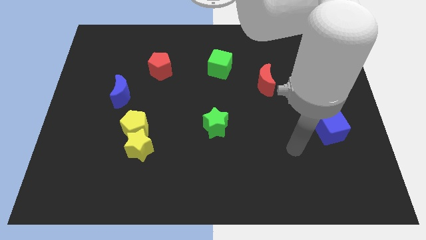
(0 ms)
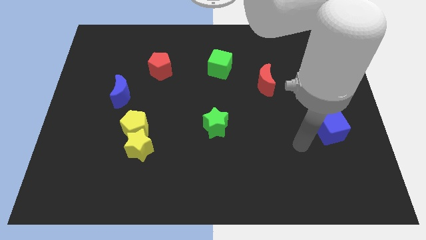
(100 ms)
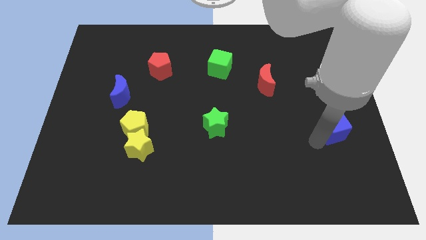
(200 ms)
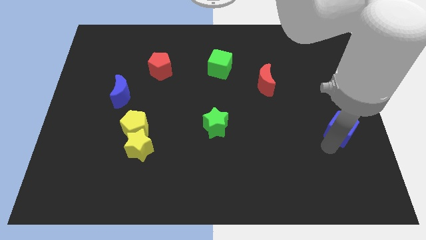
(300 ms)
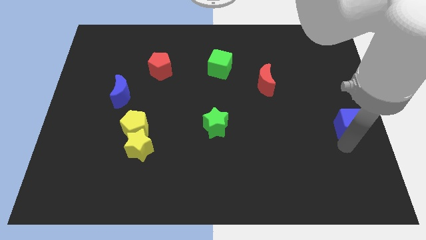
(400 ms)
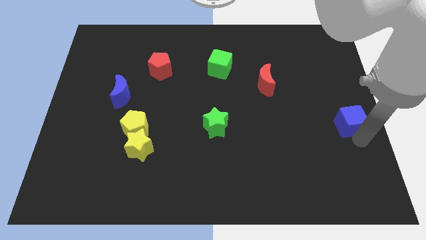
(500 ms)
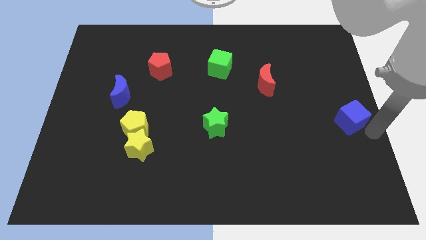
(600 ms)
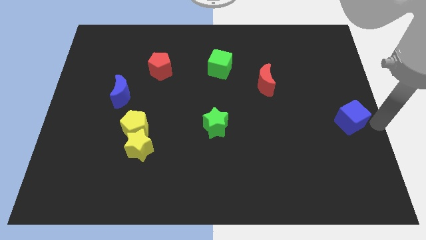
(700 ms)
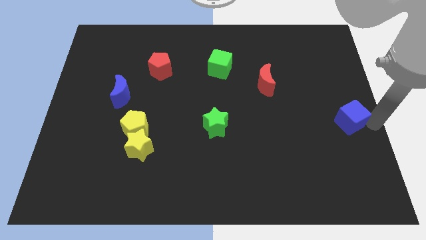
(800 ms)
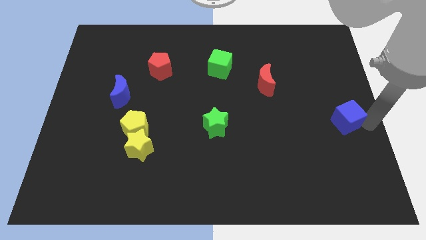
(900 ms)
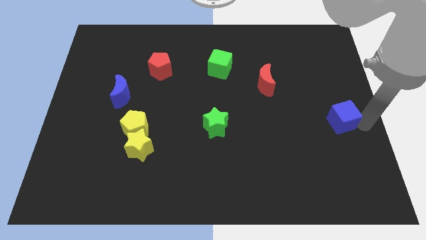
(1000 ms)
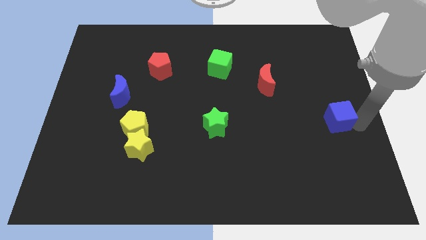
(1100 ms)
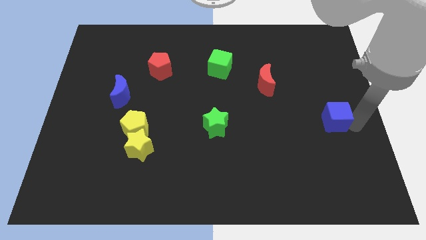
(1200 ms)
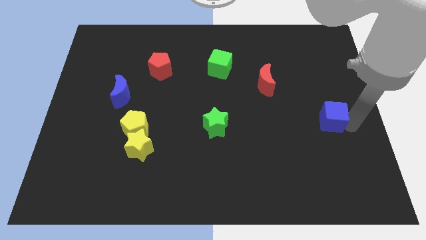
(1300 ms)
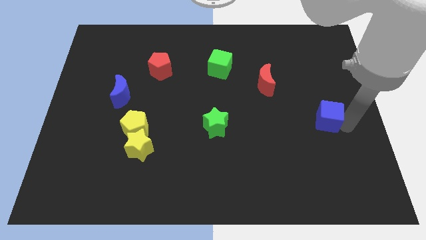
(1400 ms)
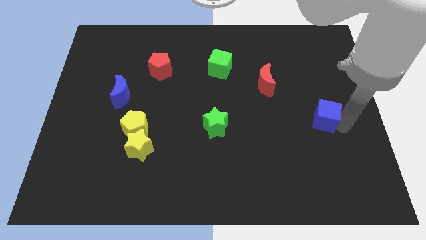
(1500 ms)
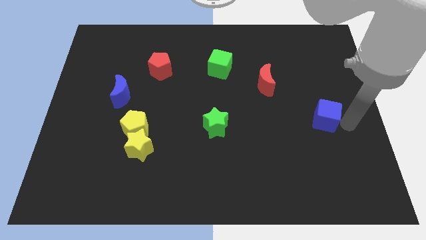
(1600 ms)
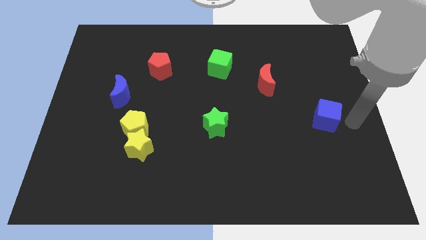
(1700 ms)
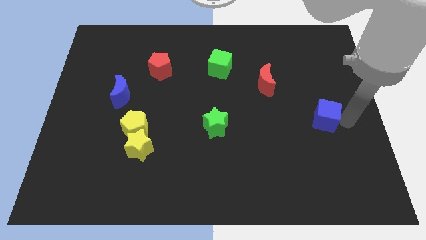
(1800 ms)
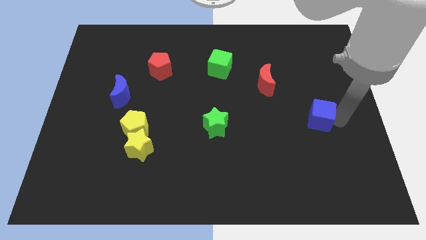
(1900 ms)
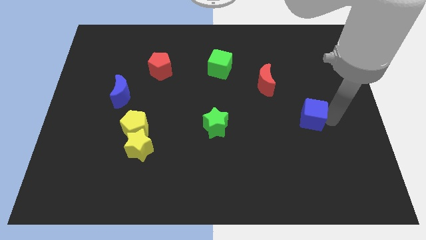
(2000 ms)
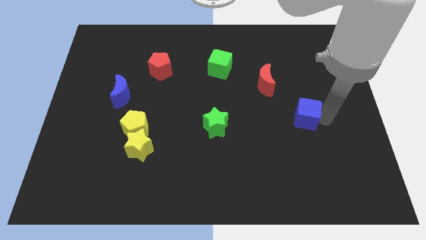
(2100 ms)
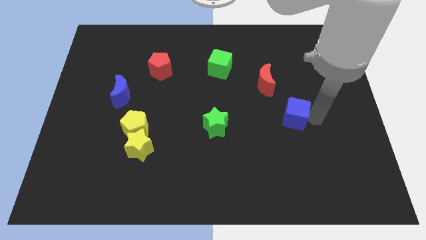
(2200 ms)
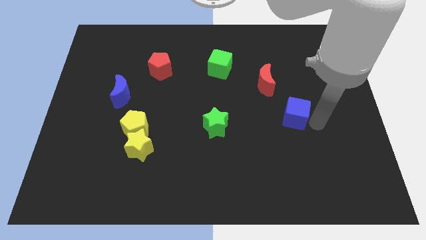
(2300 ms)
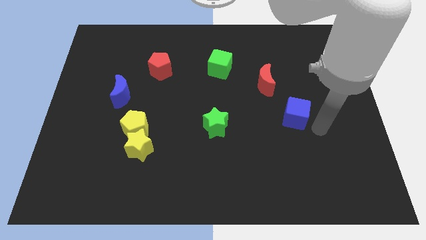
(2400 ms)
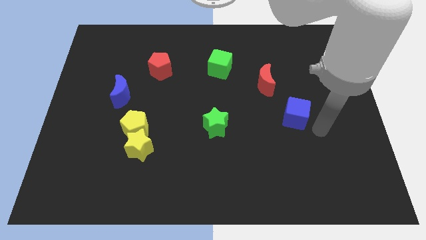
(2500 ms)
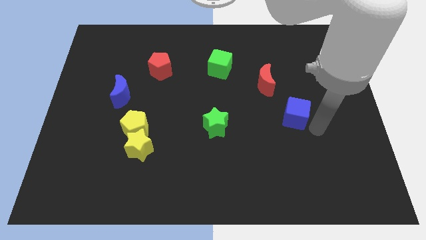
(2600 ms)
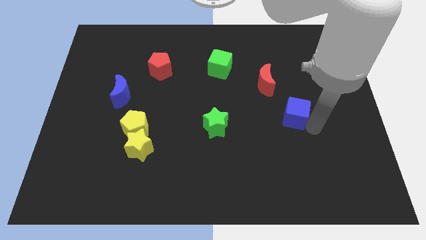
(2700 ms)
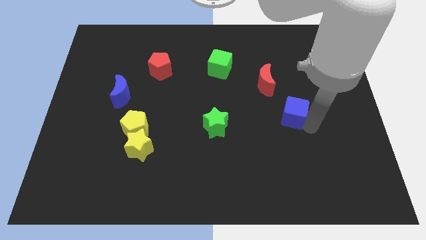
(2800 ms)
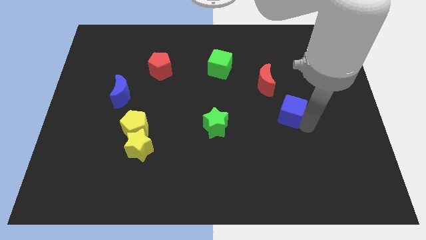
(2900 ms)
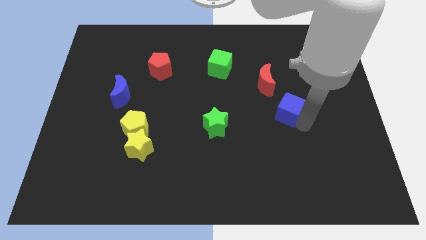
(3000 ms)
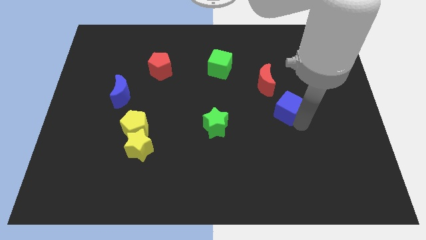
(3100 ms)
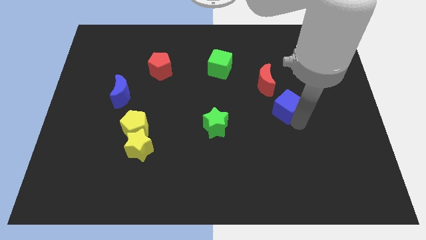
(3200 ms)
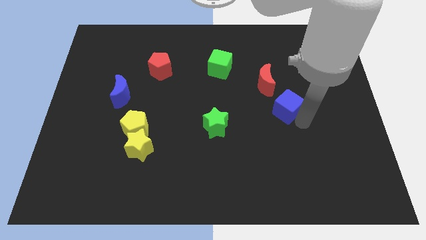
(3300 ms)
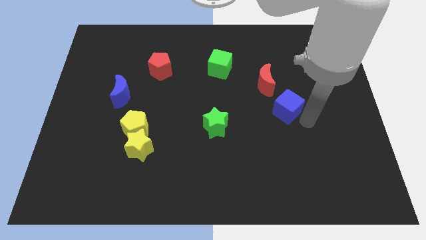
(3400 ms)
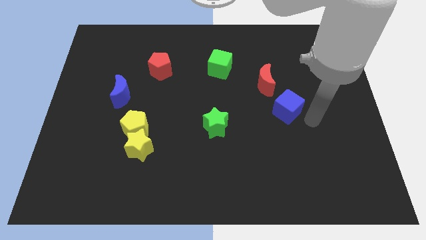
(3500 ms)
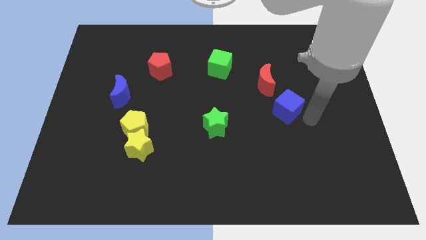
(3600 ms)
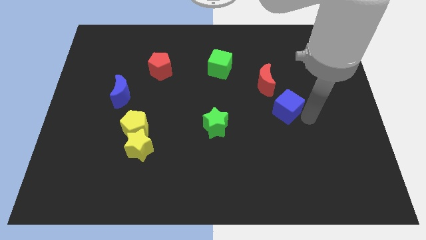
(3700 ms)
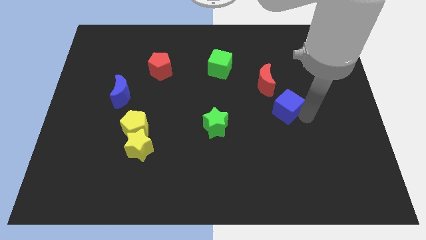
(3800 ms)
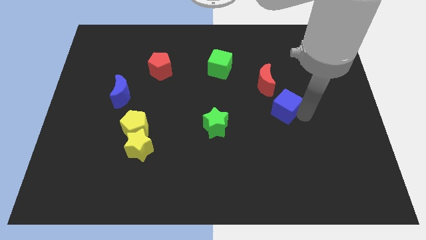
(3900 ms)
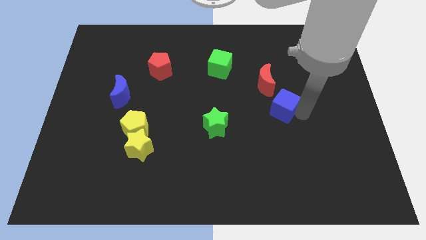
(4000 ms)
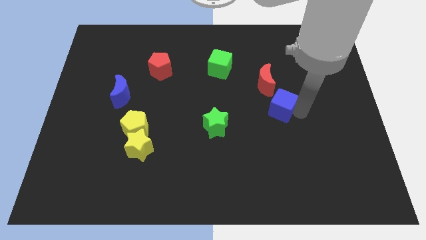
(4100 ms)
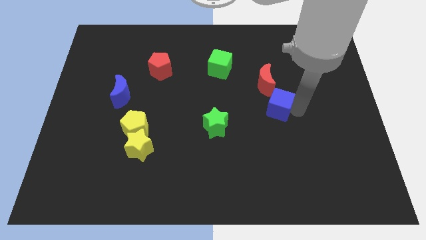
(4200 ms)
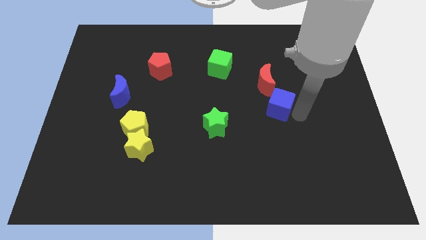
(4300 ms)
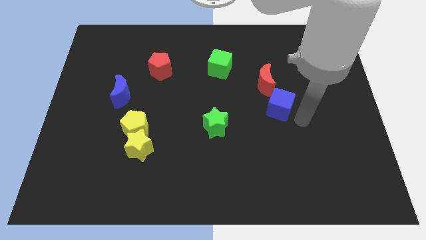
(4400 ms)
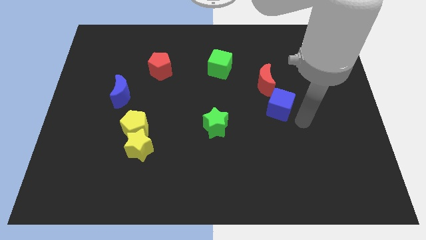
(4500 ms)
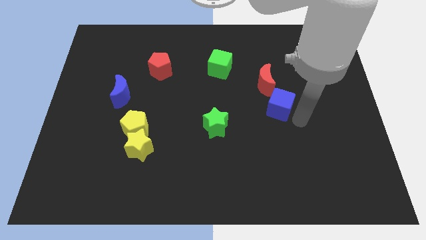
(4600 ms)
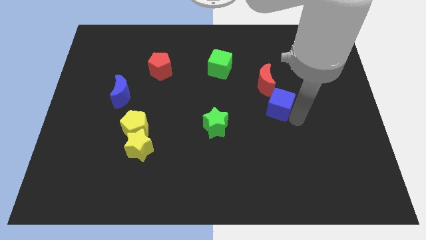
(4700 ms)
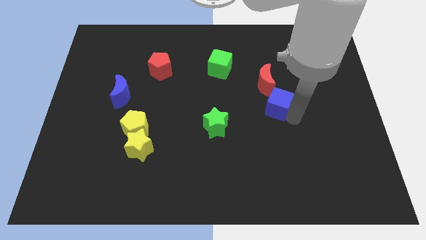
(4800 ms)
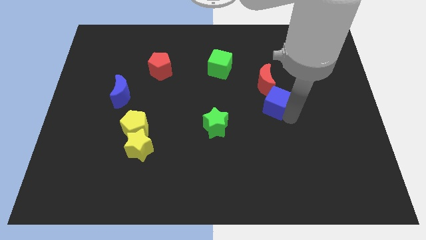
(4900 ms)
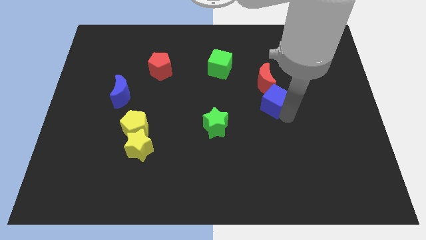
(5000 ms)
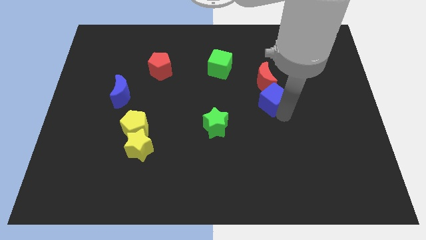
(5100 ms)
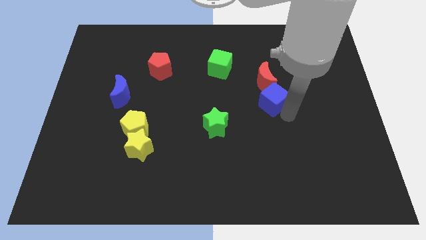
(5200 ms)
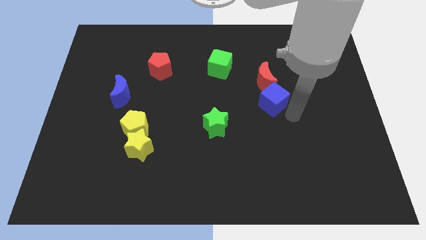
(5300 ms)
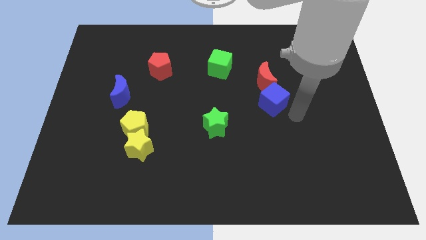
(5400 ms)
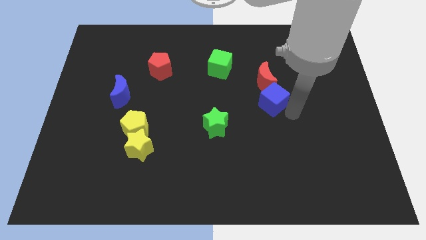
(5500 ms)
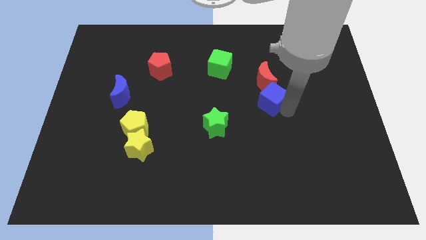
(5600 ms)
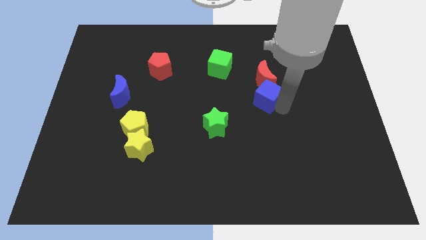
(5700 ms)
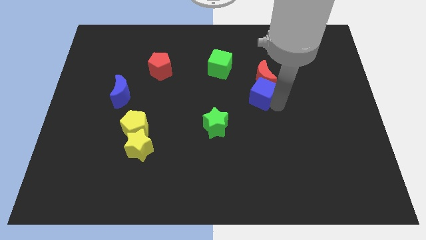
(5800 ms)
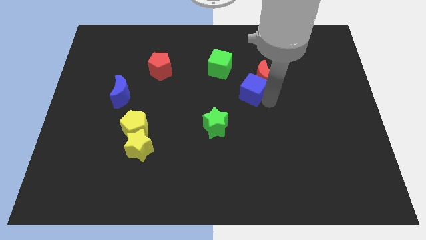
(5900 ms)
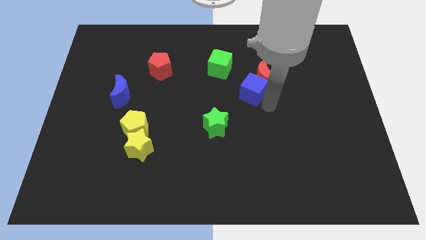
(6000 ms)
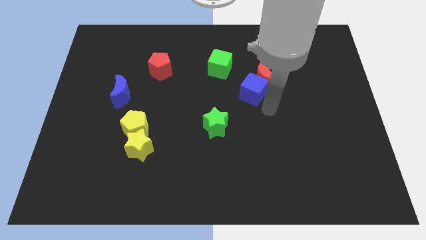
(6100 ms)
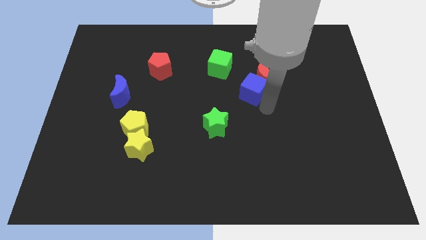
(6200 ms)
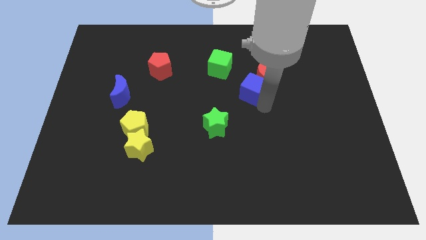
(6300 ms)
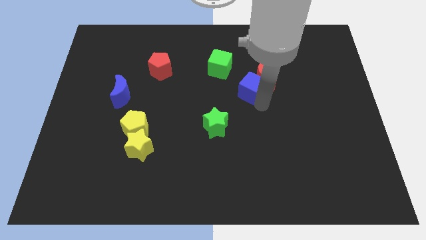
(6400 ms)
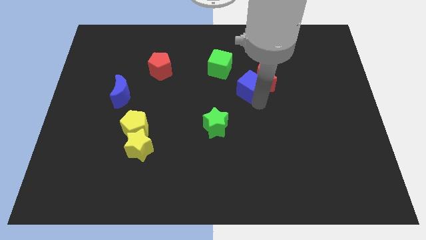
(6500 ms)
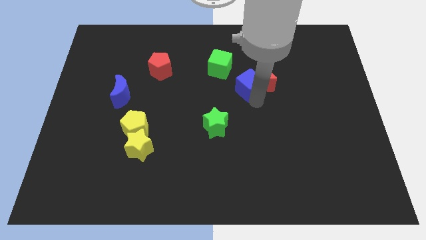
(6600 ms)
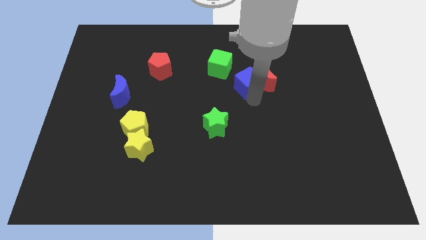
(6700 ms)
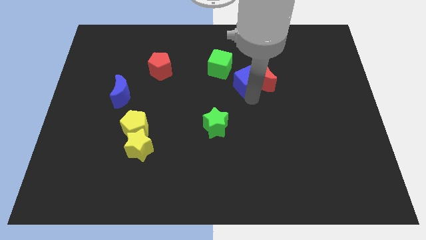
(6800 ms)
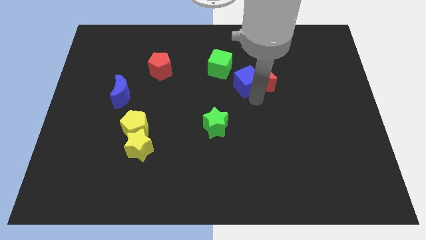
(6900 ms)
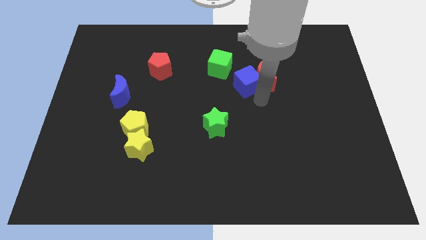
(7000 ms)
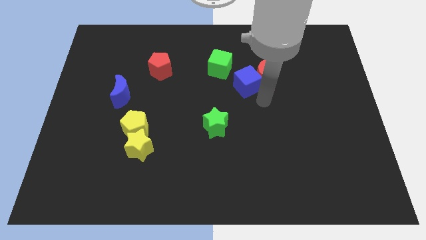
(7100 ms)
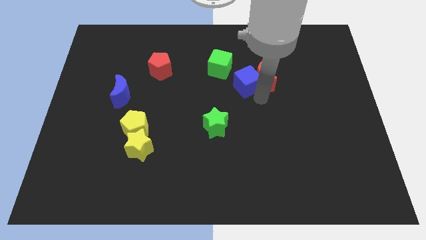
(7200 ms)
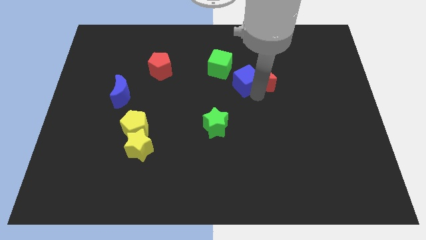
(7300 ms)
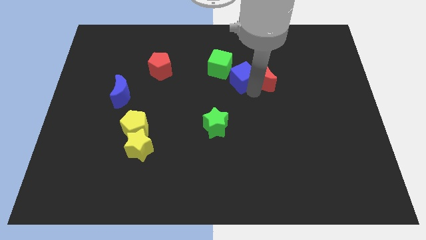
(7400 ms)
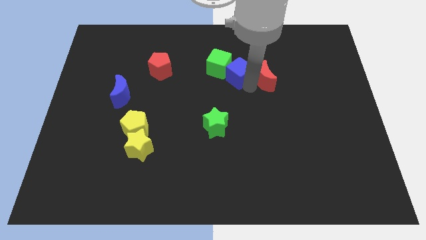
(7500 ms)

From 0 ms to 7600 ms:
move the blue cube next to the green cube
